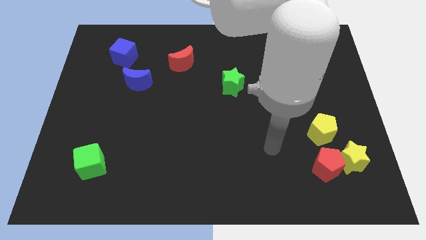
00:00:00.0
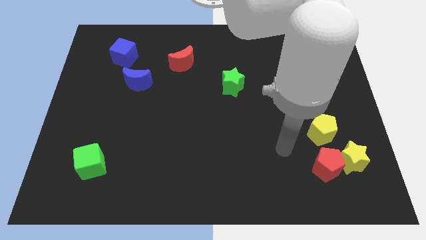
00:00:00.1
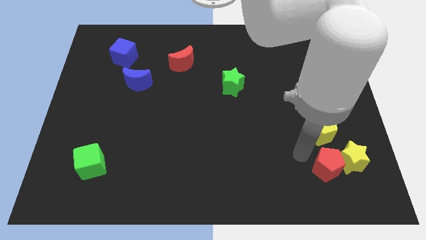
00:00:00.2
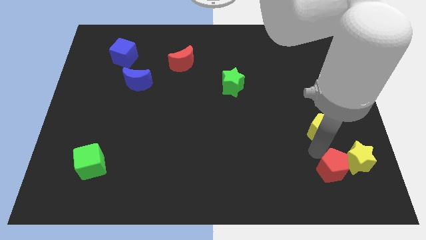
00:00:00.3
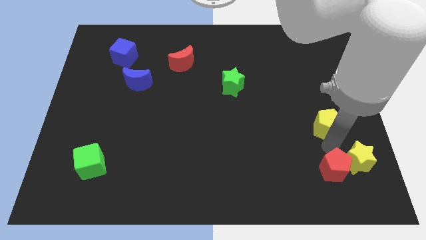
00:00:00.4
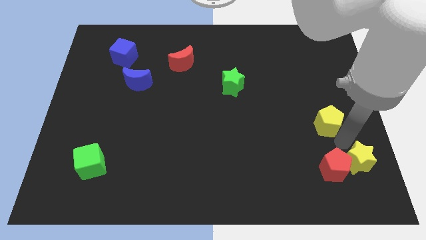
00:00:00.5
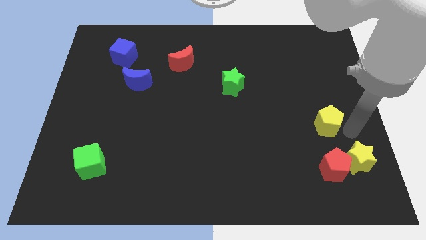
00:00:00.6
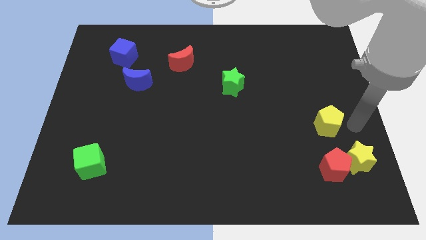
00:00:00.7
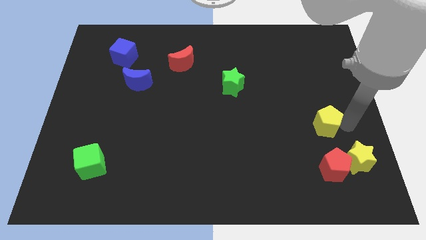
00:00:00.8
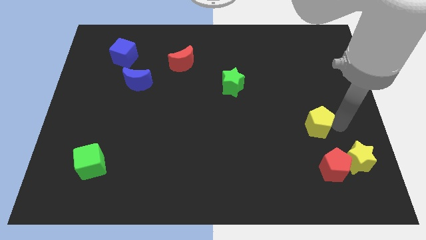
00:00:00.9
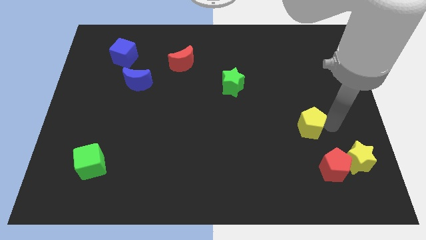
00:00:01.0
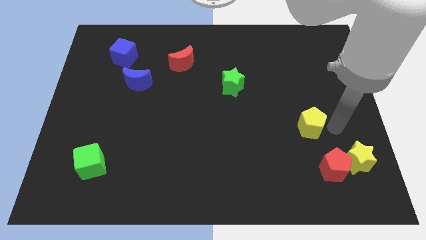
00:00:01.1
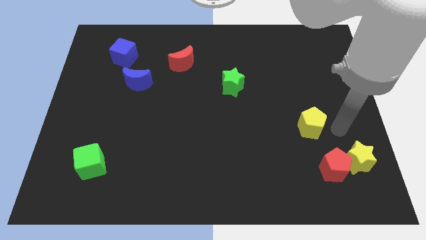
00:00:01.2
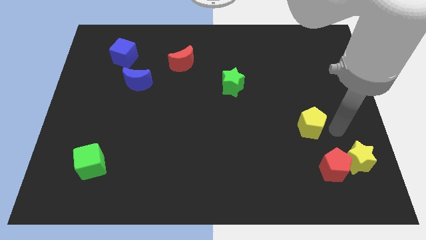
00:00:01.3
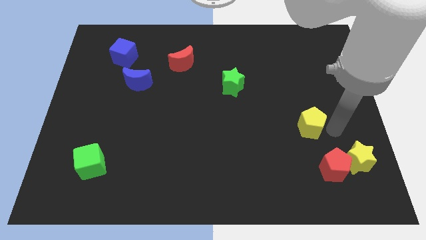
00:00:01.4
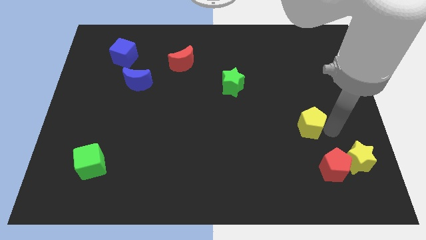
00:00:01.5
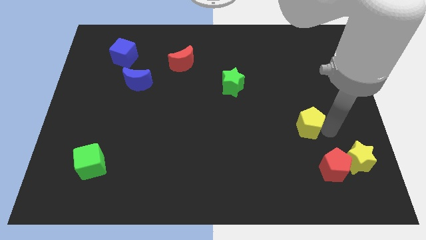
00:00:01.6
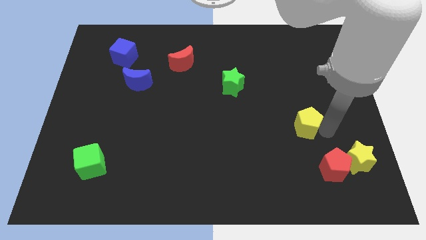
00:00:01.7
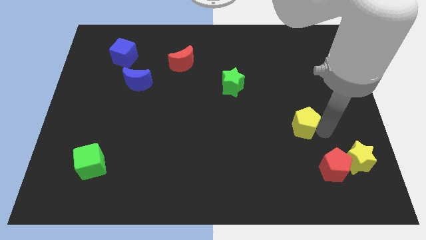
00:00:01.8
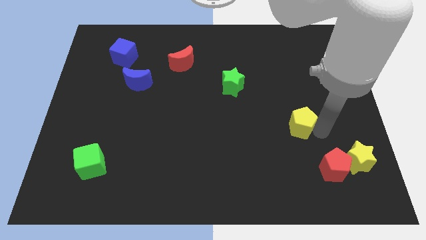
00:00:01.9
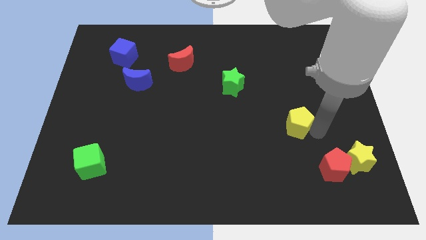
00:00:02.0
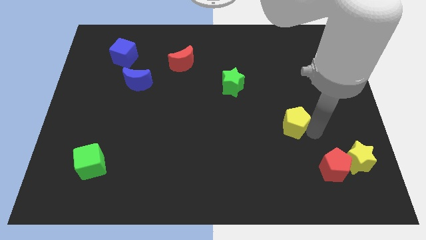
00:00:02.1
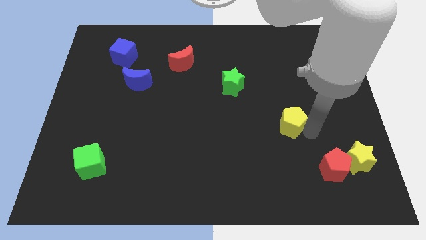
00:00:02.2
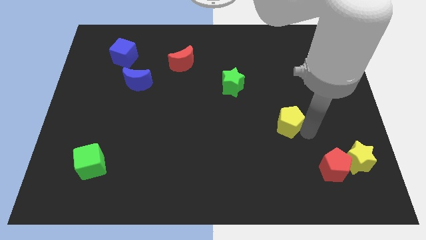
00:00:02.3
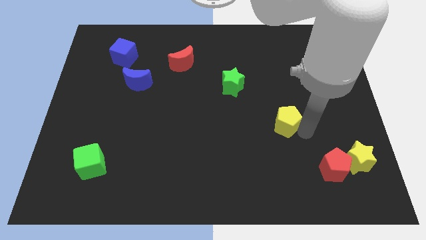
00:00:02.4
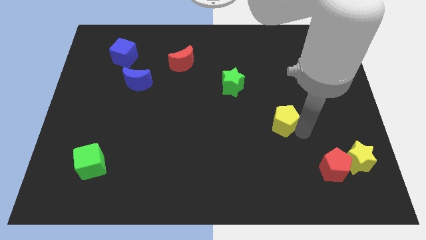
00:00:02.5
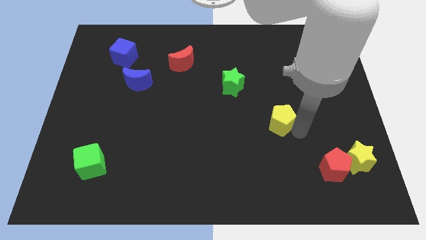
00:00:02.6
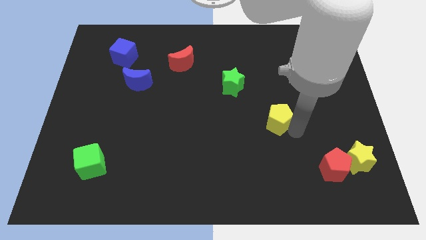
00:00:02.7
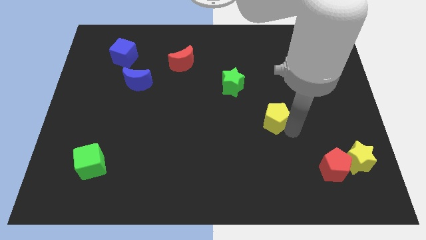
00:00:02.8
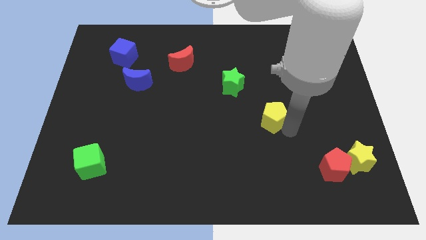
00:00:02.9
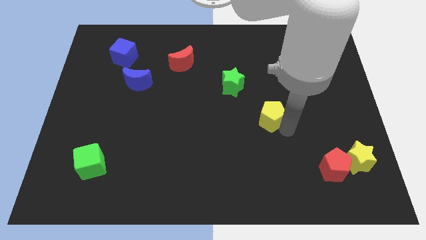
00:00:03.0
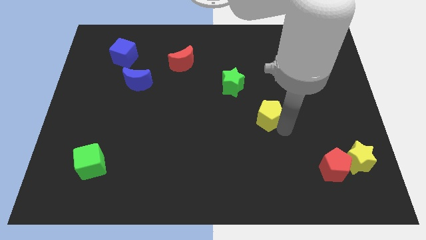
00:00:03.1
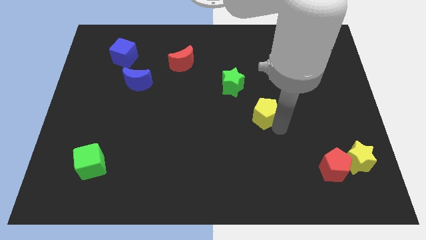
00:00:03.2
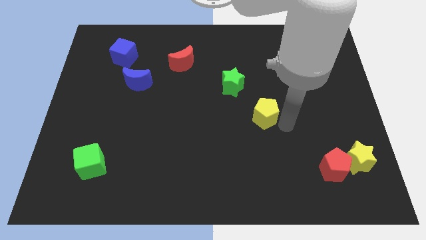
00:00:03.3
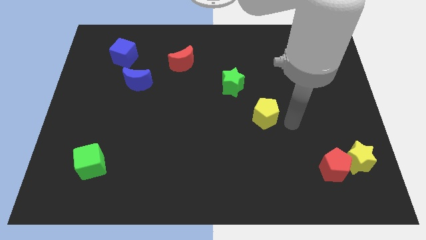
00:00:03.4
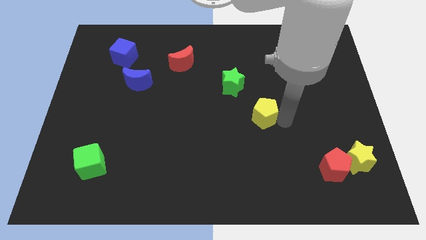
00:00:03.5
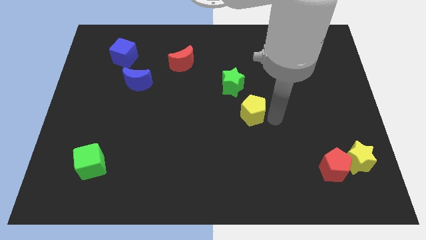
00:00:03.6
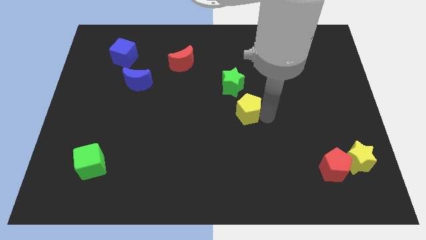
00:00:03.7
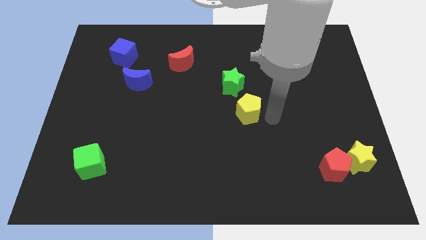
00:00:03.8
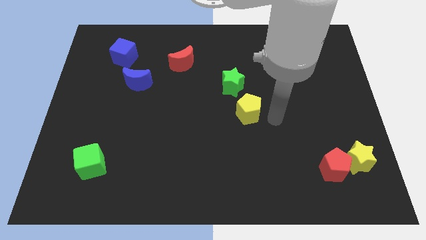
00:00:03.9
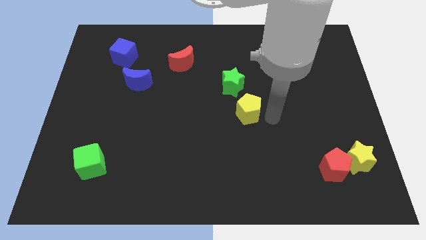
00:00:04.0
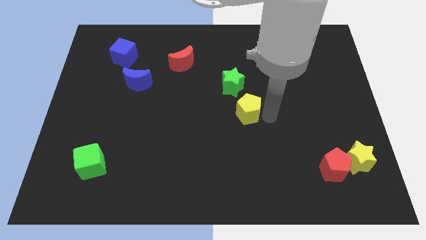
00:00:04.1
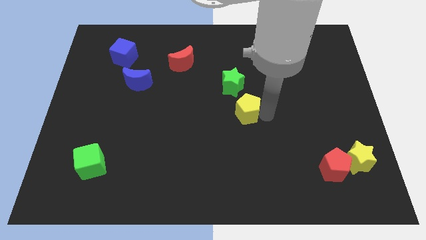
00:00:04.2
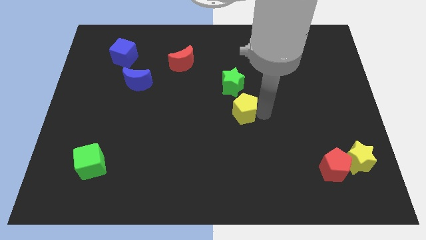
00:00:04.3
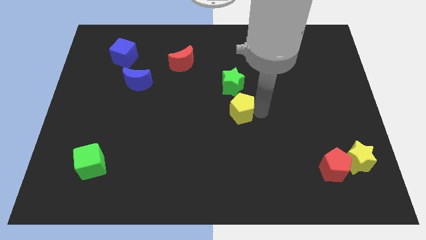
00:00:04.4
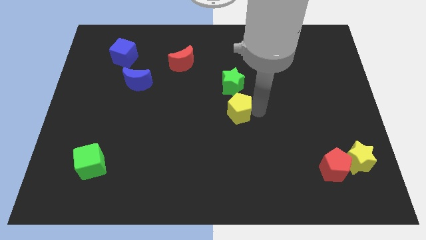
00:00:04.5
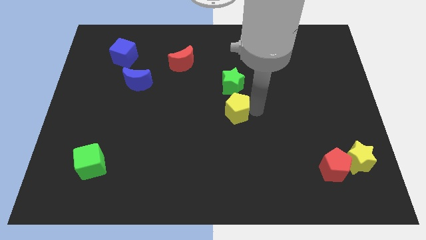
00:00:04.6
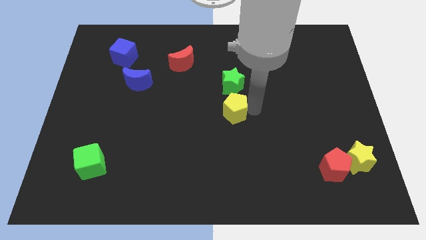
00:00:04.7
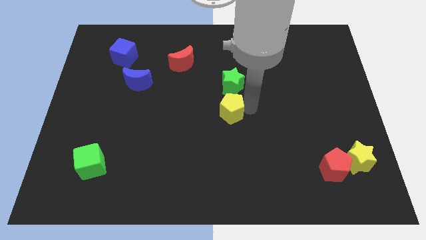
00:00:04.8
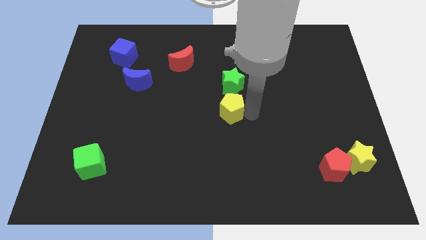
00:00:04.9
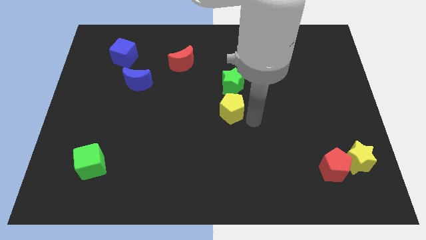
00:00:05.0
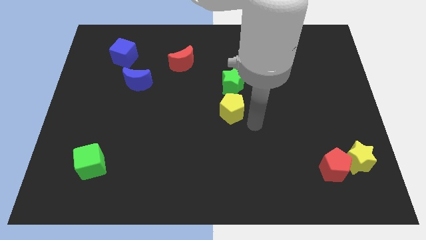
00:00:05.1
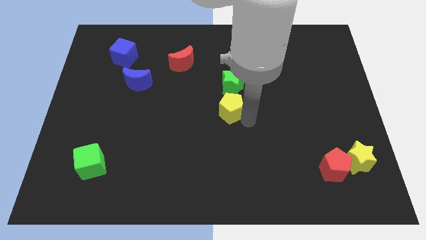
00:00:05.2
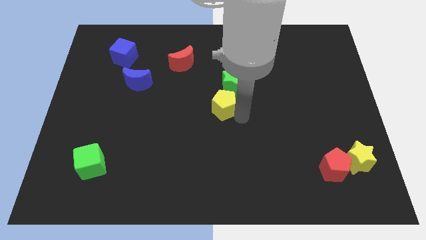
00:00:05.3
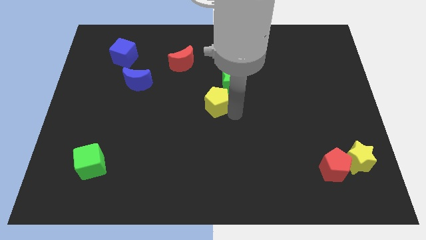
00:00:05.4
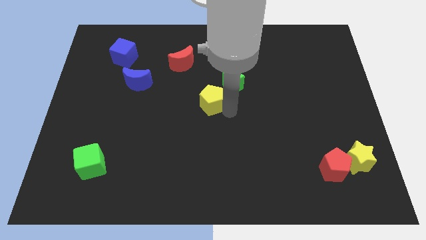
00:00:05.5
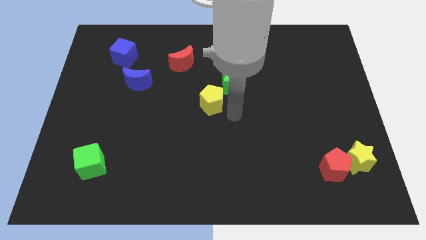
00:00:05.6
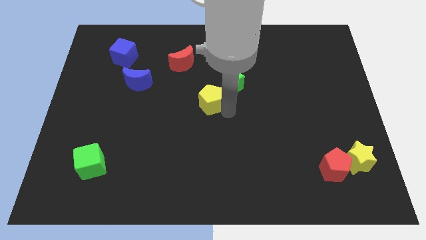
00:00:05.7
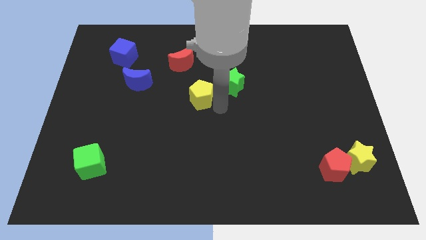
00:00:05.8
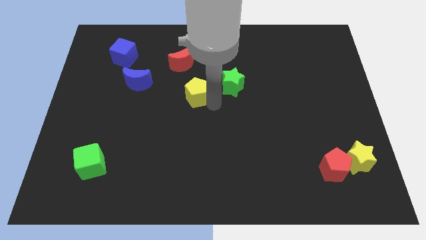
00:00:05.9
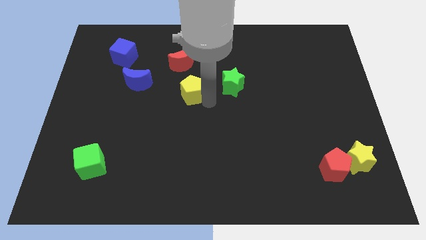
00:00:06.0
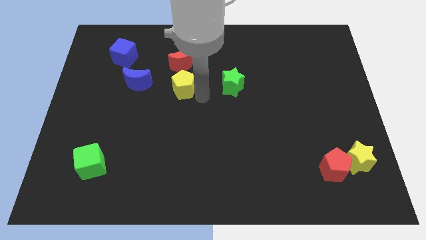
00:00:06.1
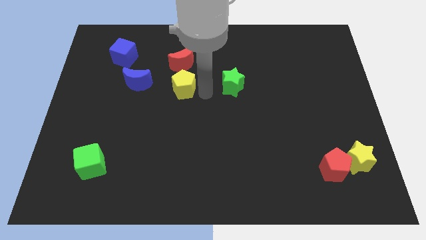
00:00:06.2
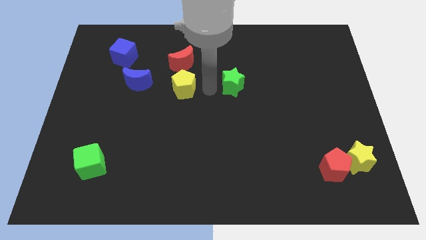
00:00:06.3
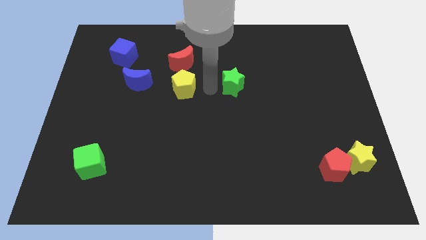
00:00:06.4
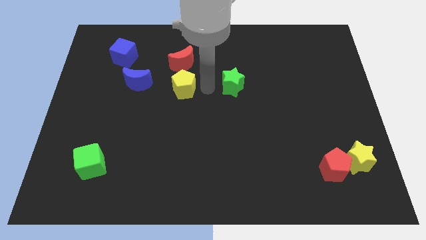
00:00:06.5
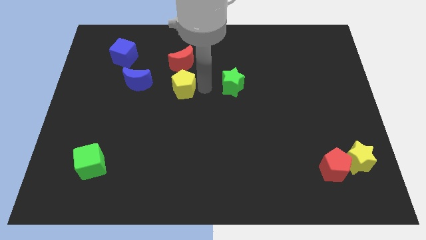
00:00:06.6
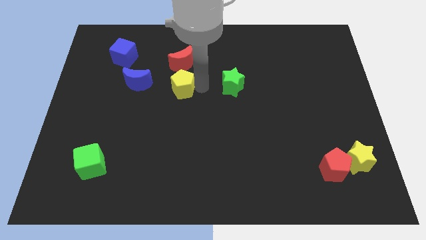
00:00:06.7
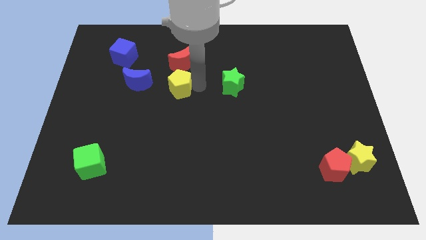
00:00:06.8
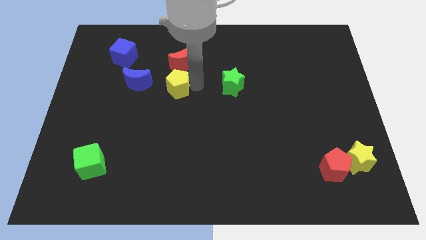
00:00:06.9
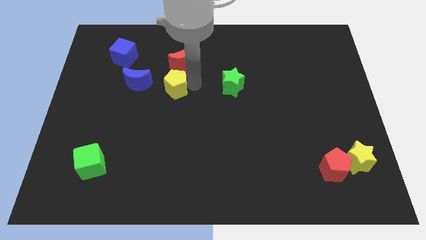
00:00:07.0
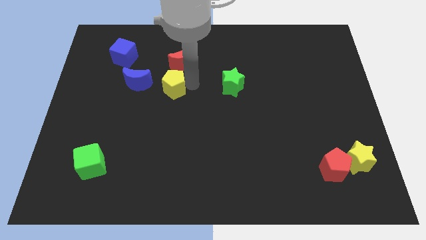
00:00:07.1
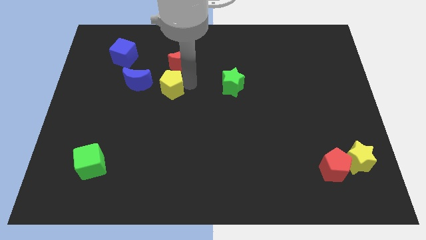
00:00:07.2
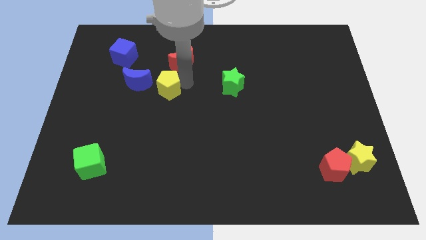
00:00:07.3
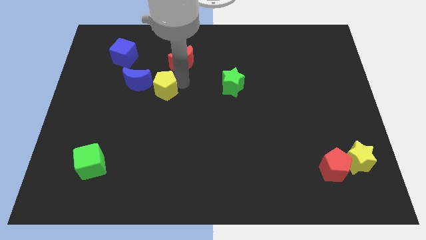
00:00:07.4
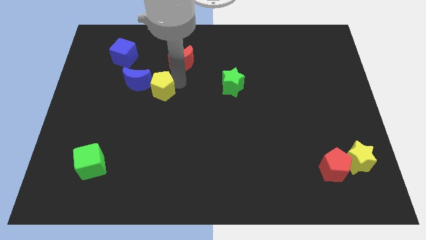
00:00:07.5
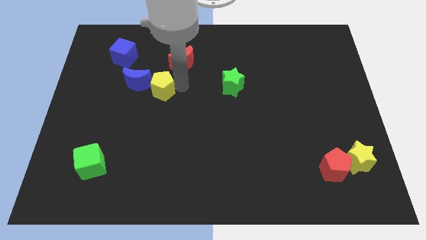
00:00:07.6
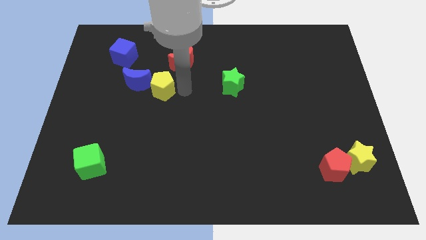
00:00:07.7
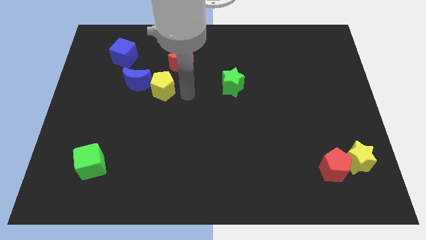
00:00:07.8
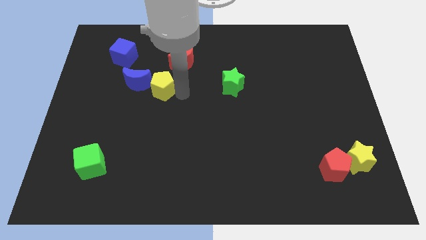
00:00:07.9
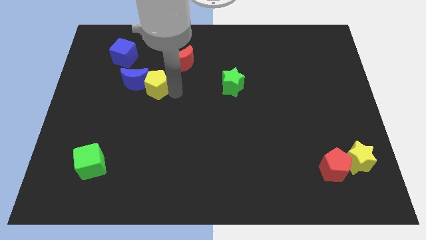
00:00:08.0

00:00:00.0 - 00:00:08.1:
slide the yellow pentagon close to the blue moon
